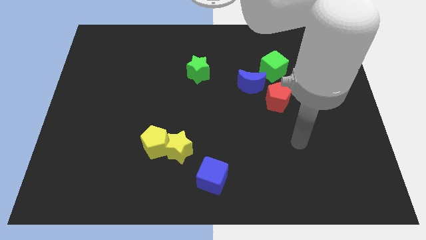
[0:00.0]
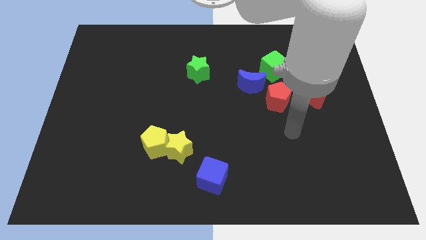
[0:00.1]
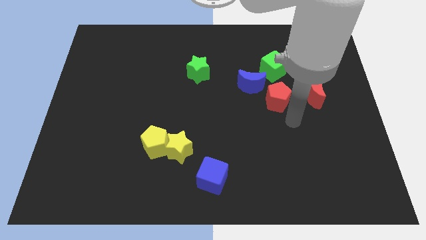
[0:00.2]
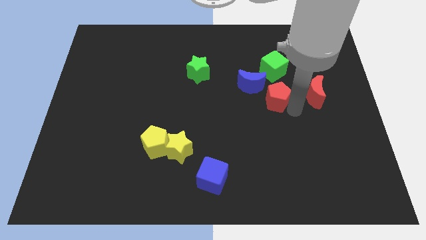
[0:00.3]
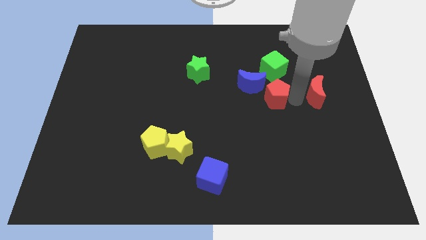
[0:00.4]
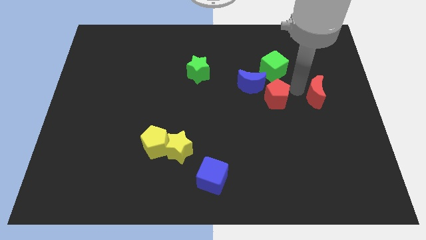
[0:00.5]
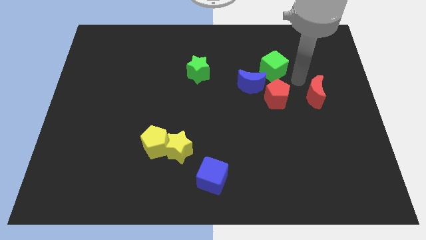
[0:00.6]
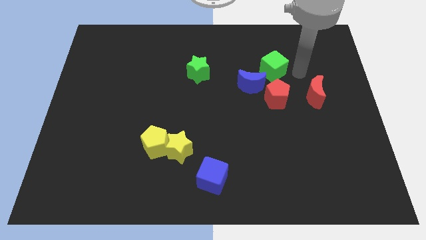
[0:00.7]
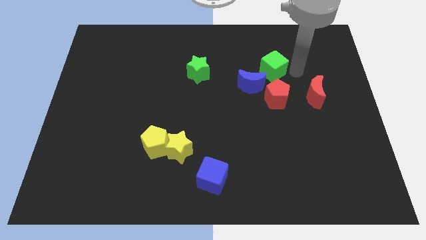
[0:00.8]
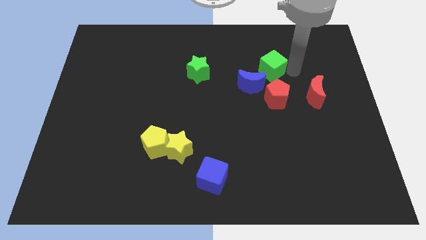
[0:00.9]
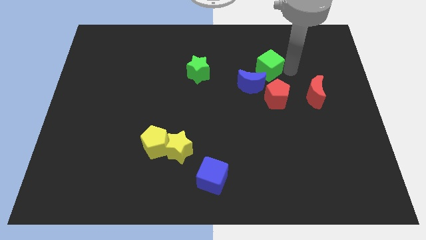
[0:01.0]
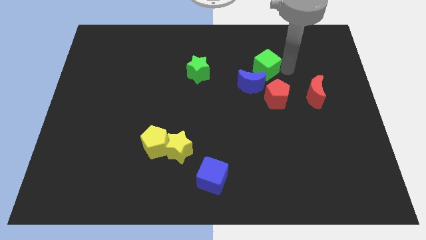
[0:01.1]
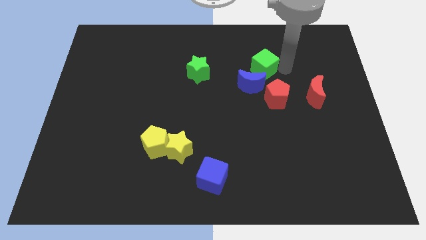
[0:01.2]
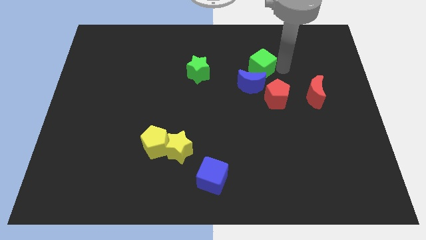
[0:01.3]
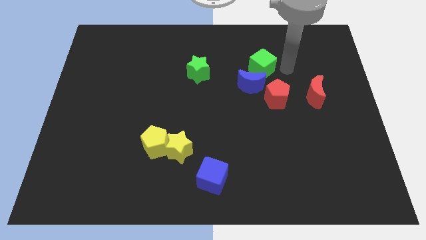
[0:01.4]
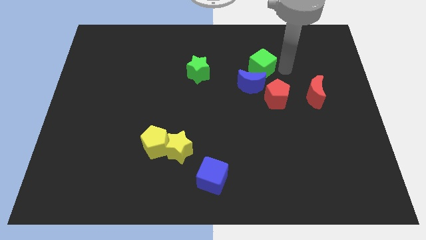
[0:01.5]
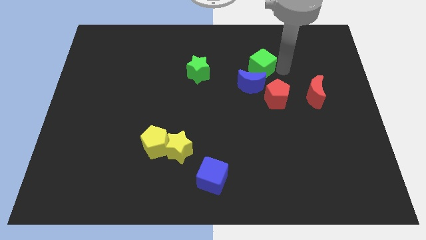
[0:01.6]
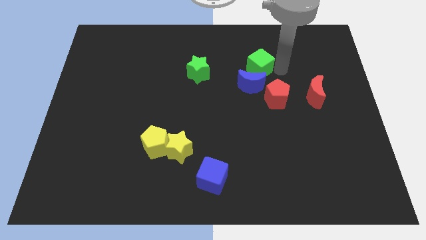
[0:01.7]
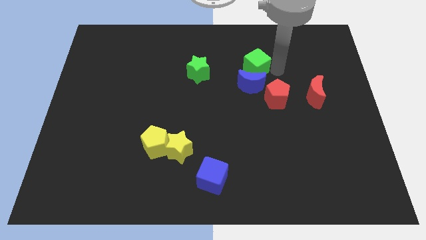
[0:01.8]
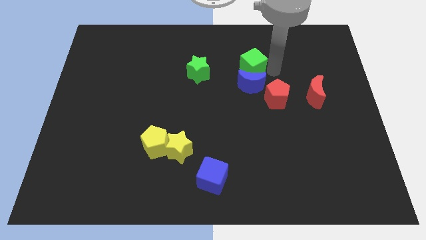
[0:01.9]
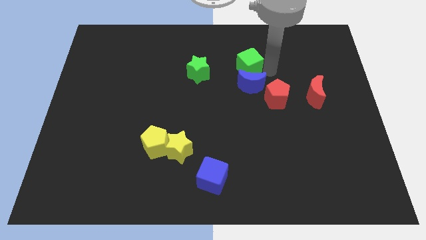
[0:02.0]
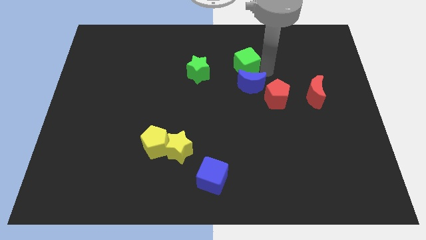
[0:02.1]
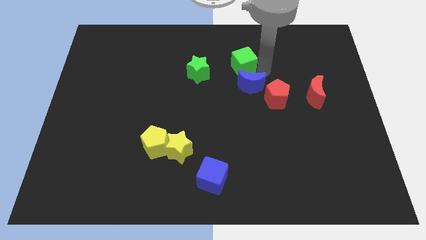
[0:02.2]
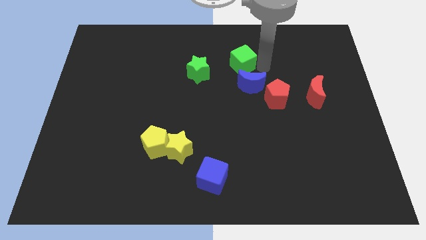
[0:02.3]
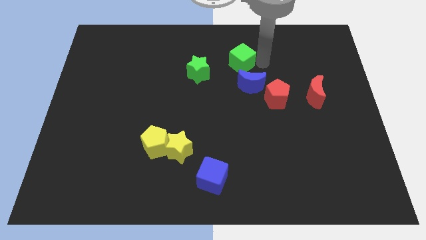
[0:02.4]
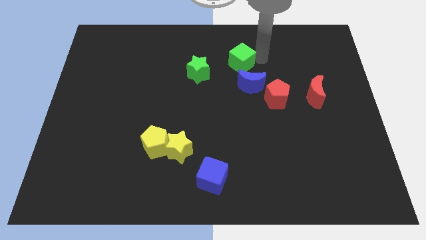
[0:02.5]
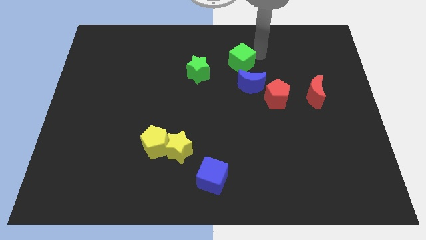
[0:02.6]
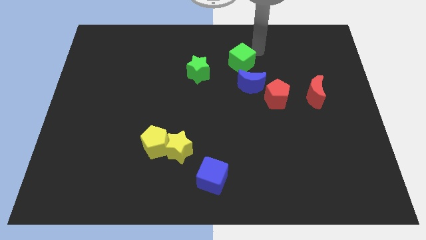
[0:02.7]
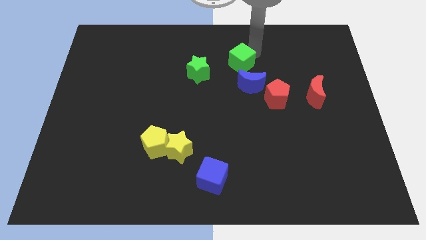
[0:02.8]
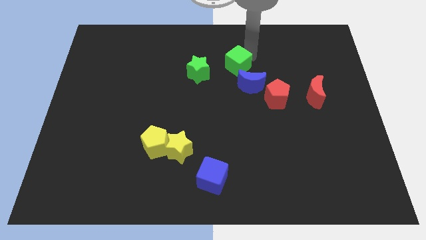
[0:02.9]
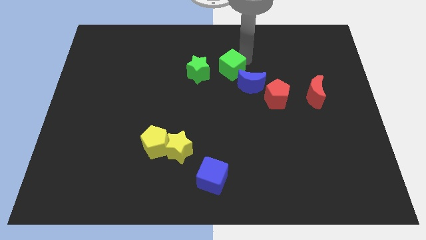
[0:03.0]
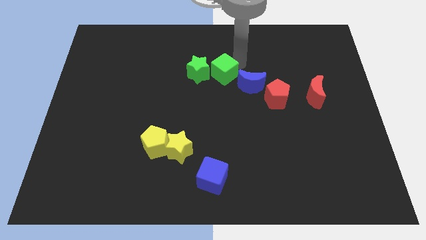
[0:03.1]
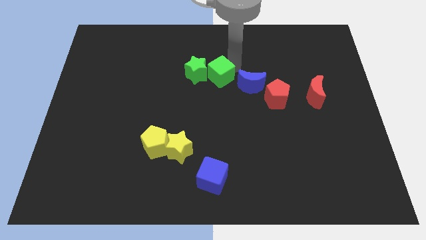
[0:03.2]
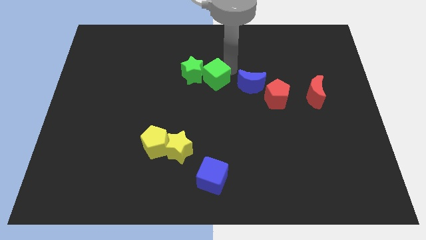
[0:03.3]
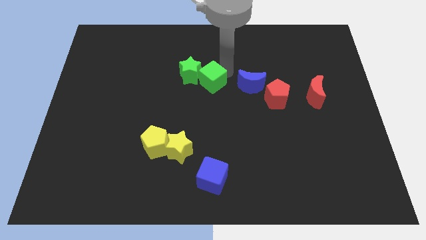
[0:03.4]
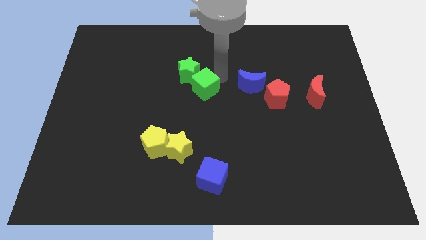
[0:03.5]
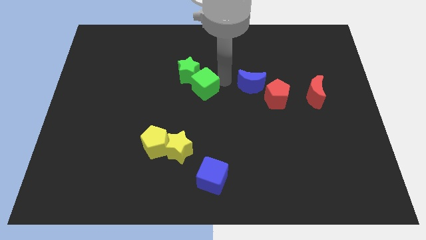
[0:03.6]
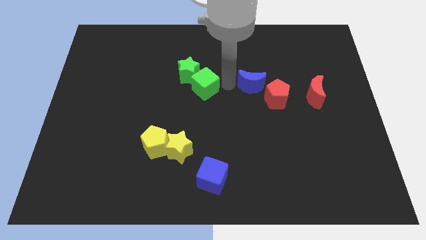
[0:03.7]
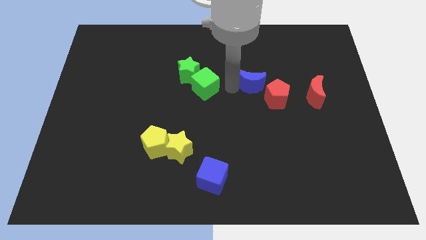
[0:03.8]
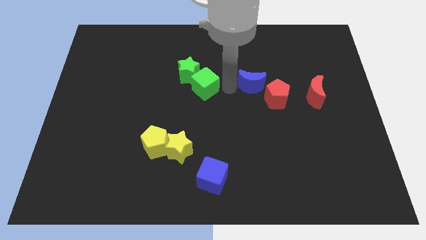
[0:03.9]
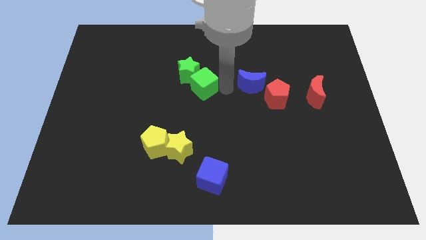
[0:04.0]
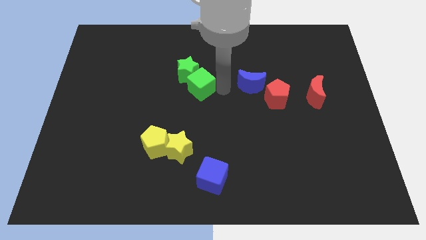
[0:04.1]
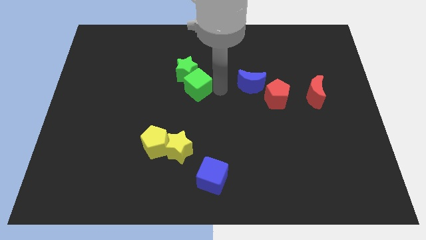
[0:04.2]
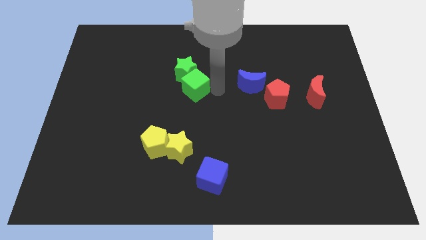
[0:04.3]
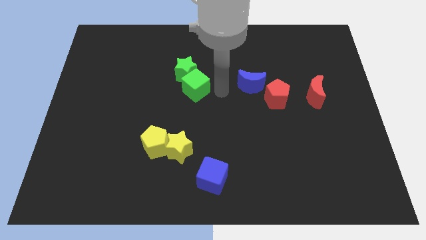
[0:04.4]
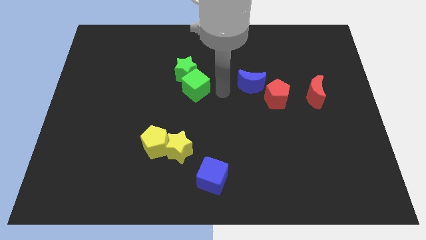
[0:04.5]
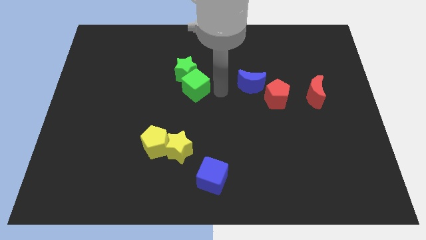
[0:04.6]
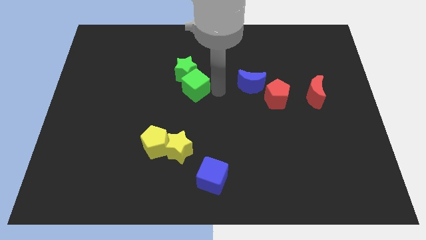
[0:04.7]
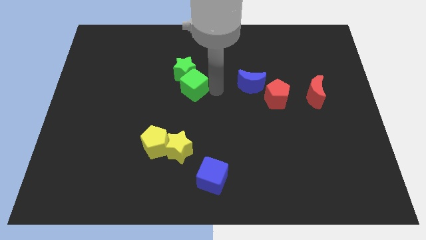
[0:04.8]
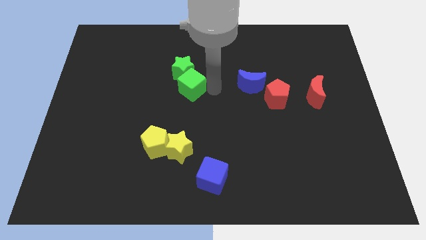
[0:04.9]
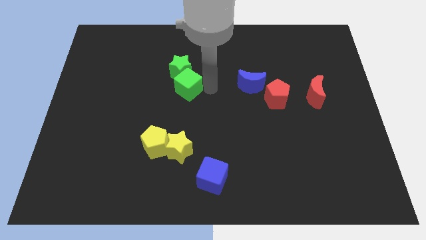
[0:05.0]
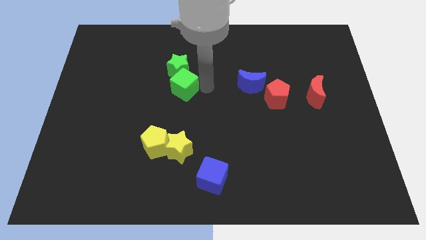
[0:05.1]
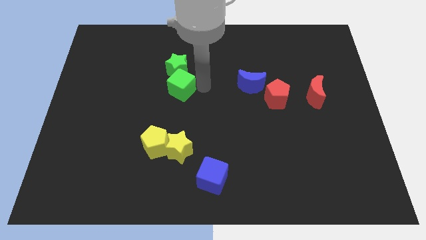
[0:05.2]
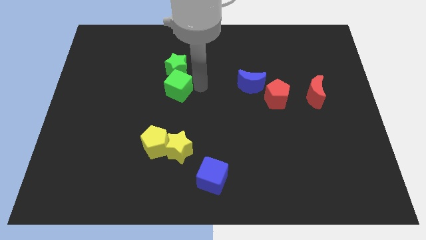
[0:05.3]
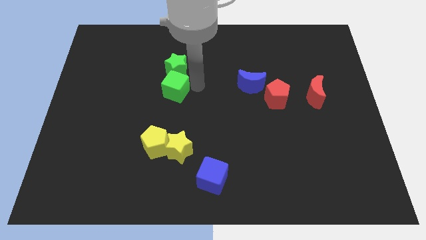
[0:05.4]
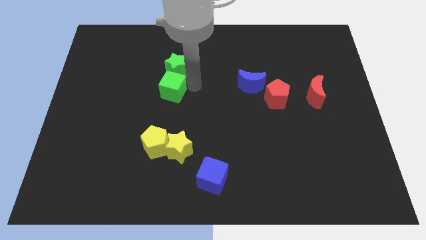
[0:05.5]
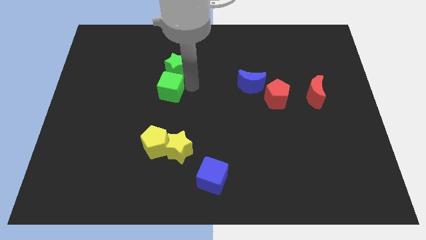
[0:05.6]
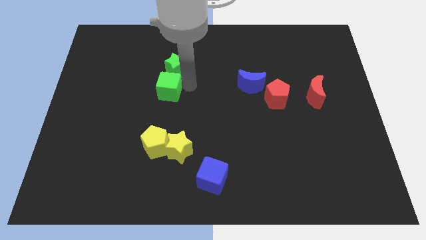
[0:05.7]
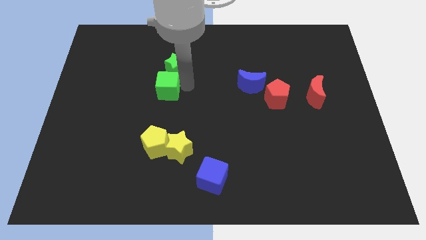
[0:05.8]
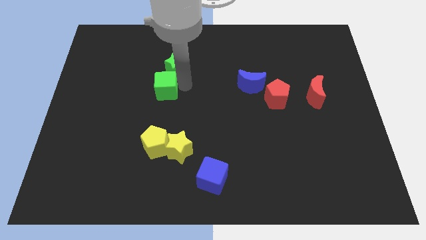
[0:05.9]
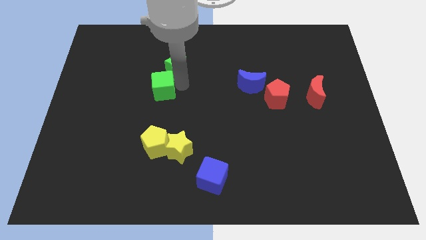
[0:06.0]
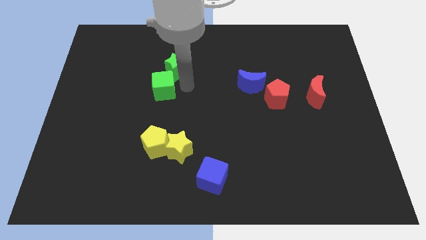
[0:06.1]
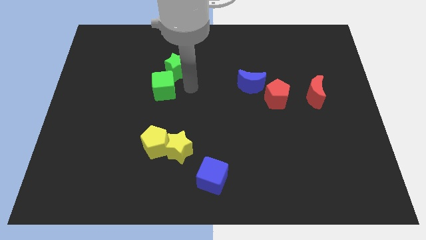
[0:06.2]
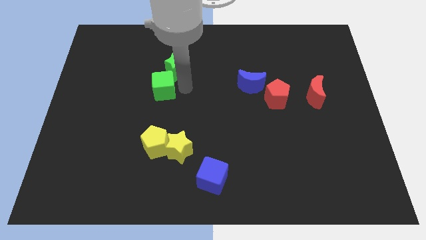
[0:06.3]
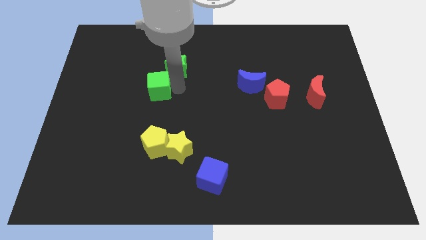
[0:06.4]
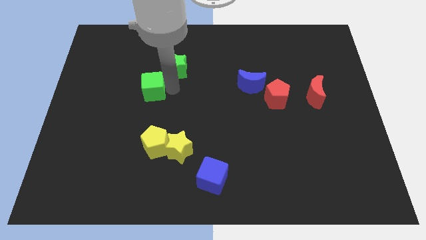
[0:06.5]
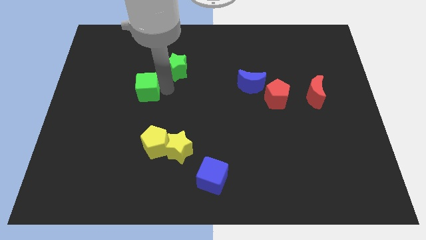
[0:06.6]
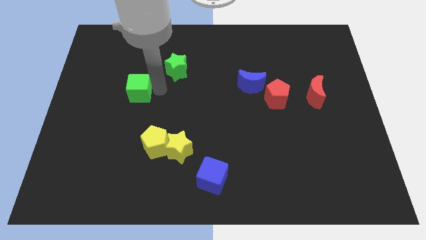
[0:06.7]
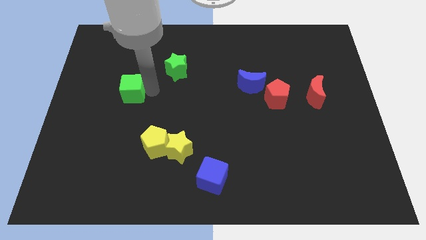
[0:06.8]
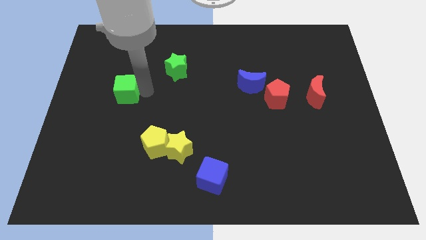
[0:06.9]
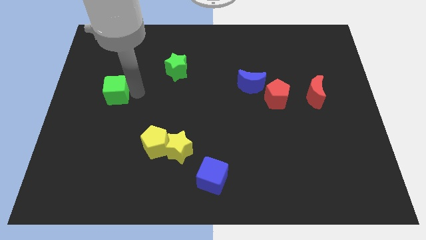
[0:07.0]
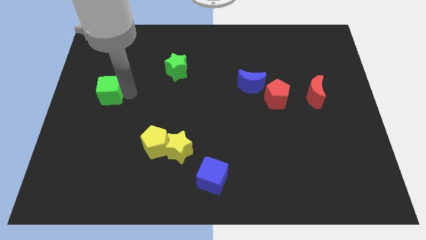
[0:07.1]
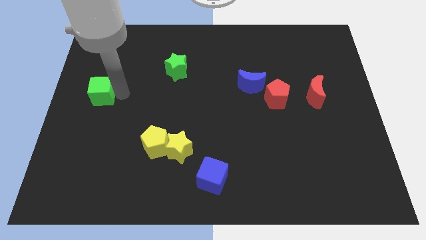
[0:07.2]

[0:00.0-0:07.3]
put the green cube to the center left
